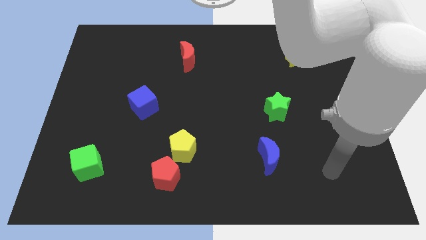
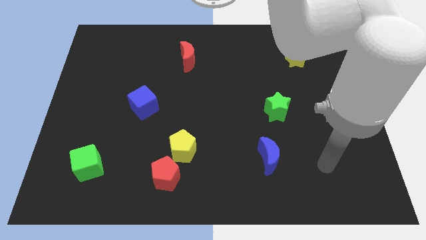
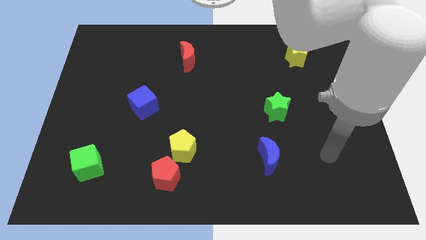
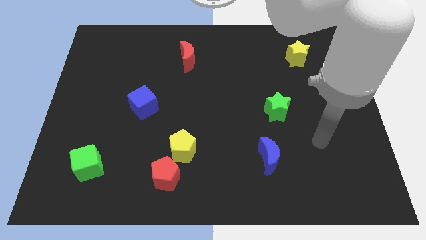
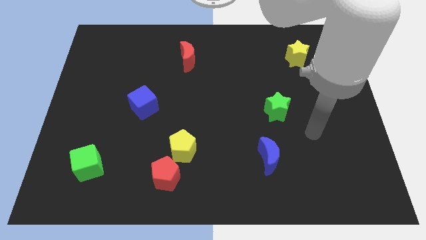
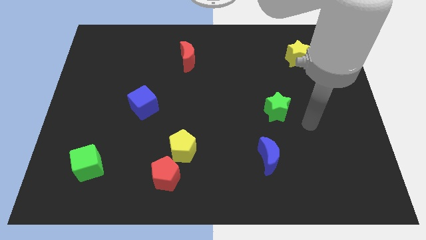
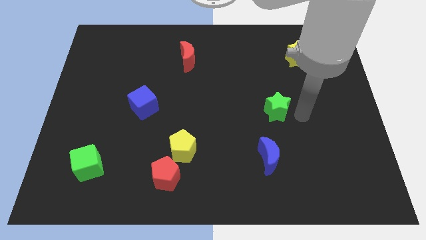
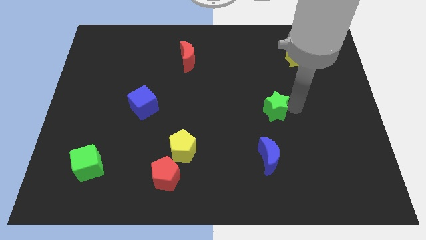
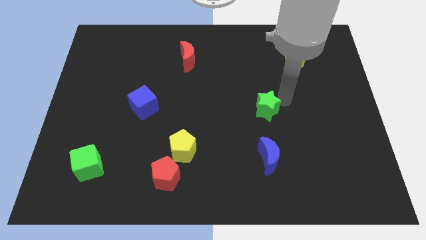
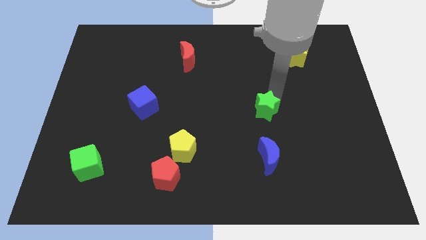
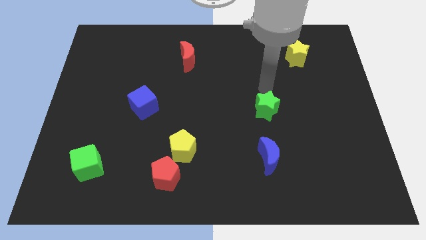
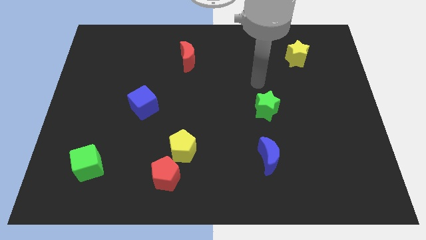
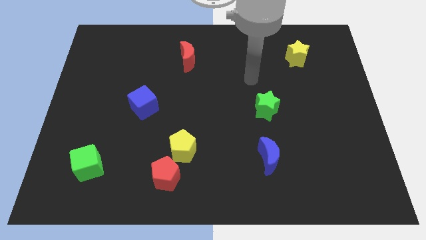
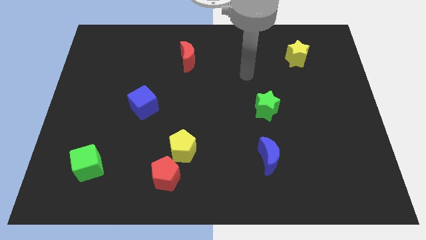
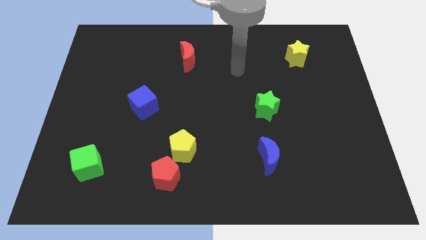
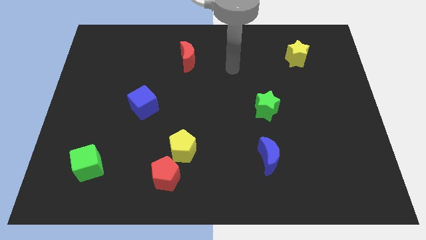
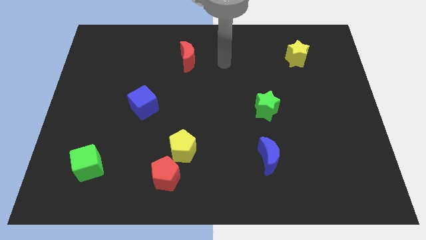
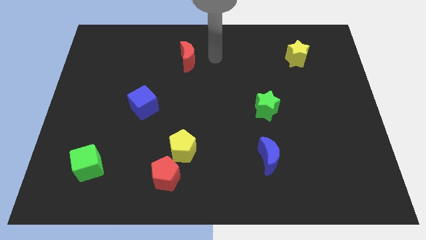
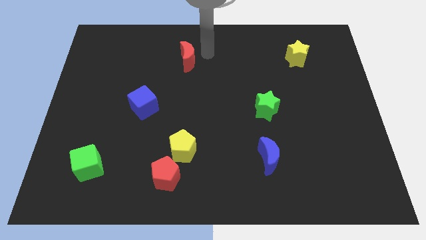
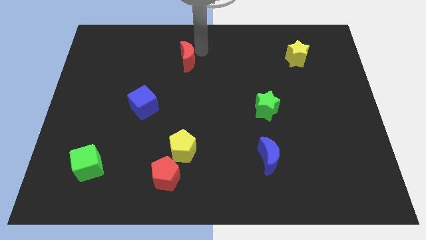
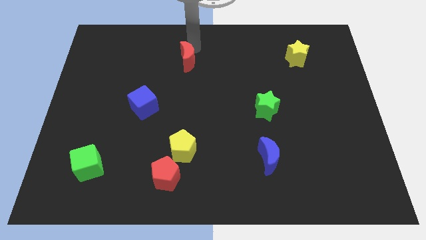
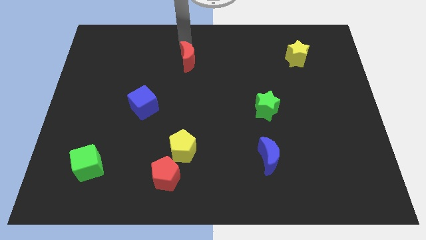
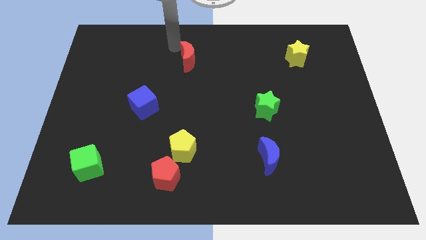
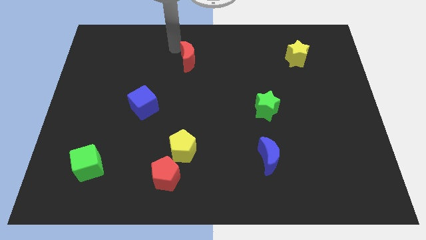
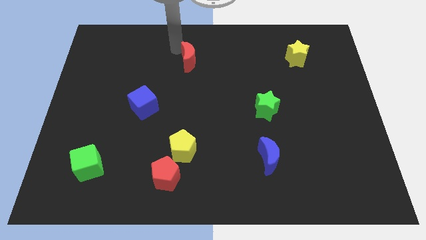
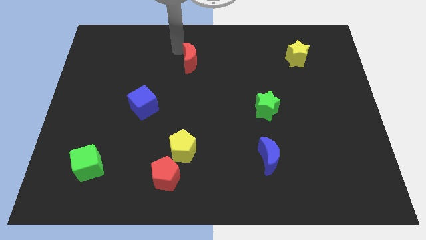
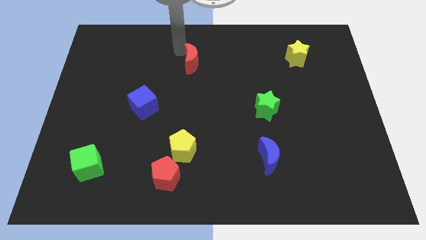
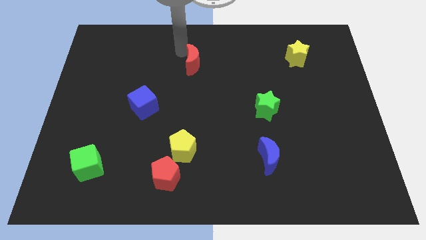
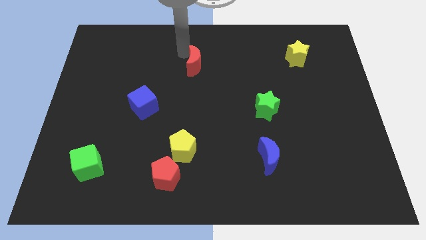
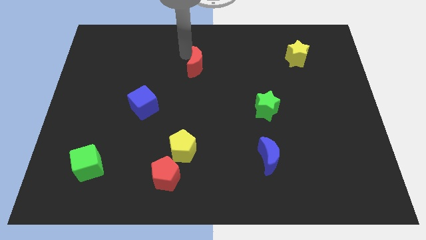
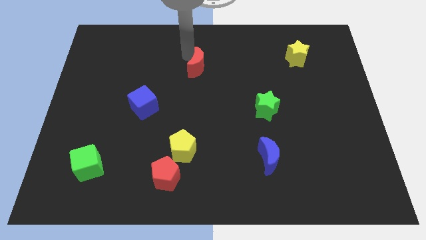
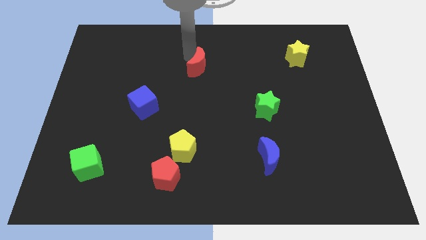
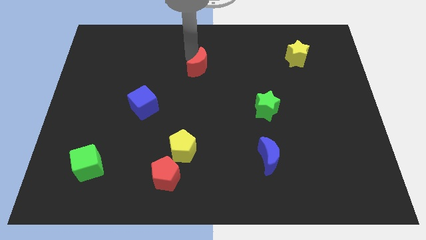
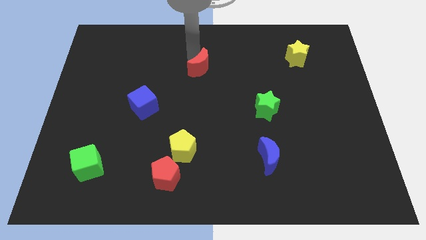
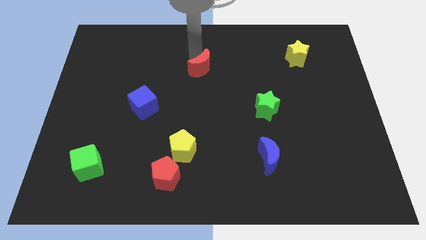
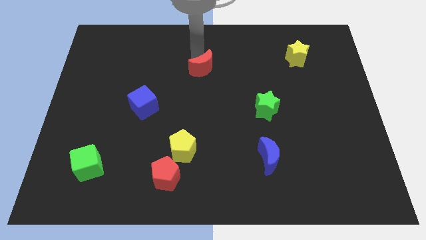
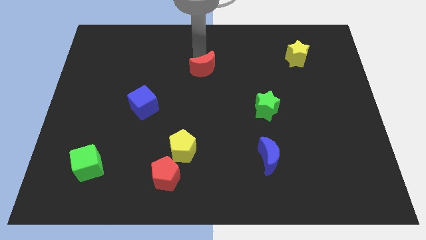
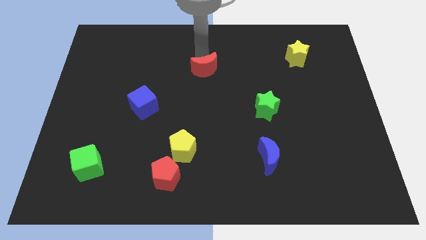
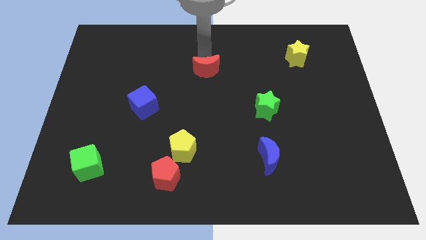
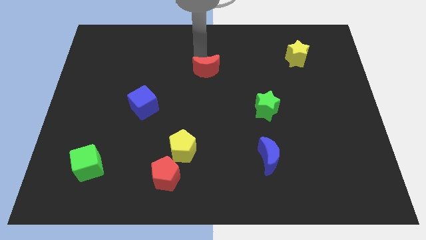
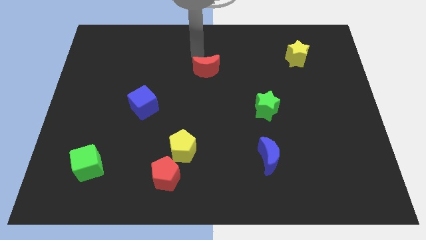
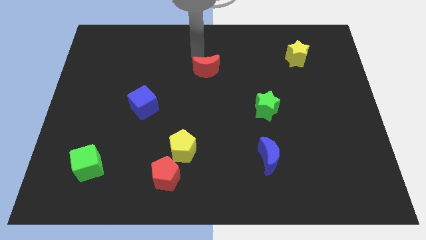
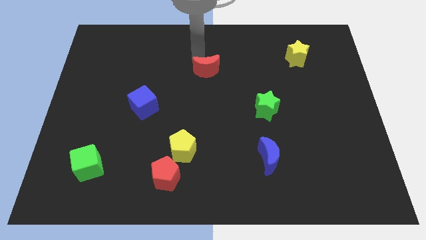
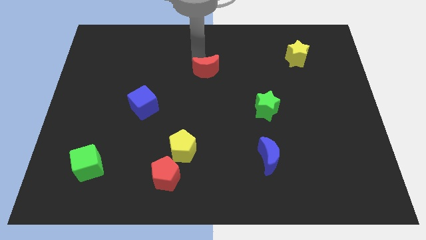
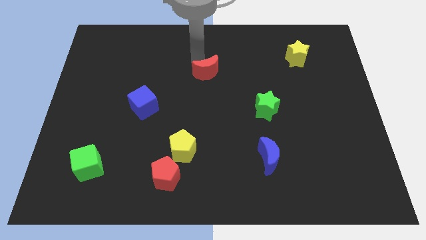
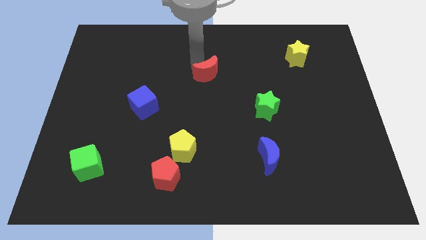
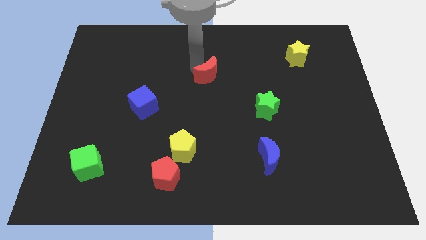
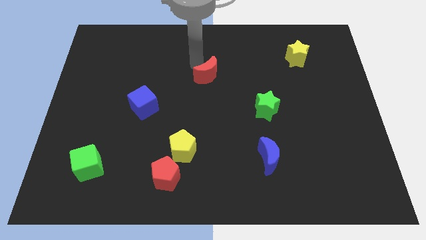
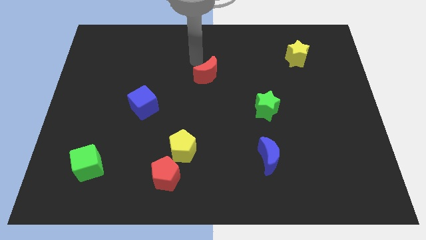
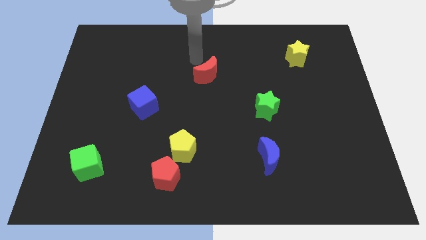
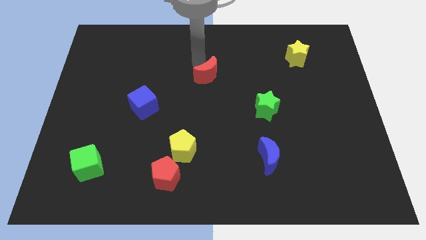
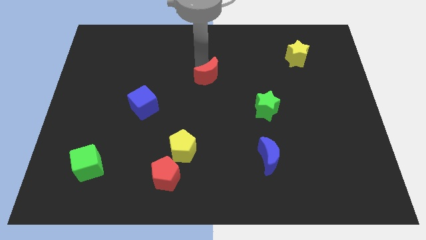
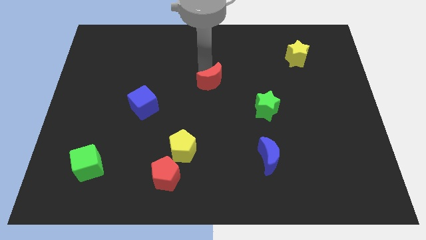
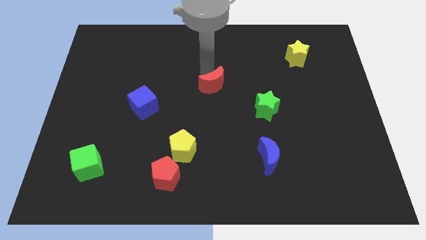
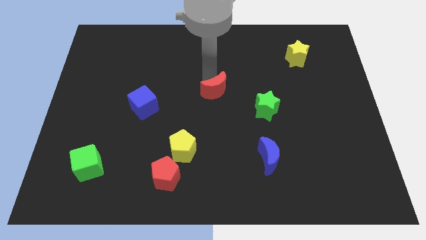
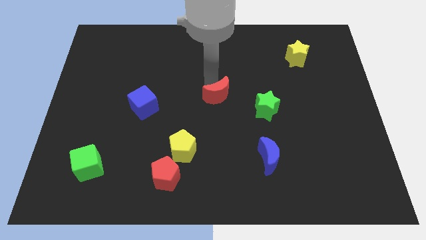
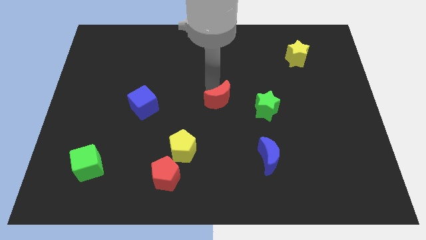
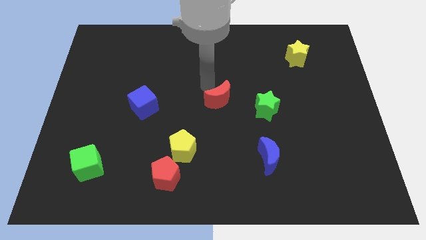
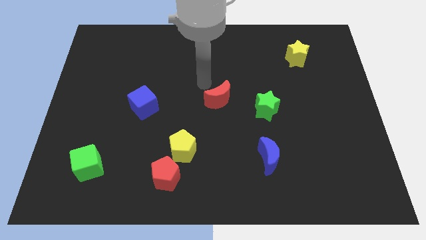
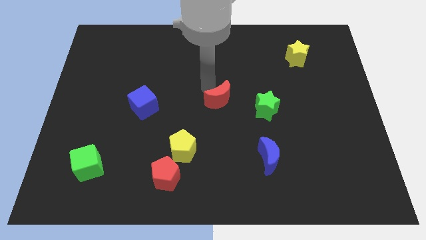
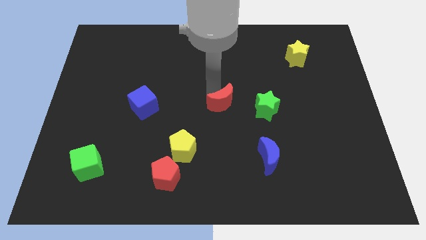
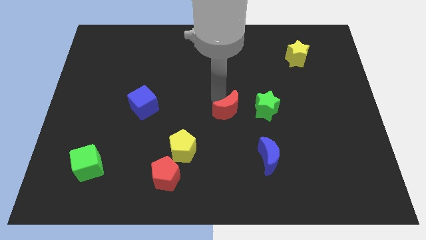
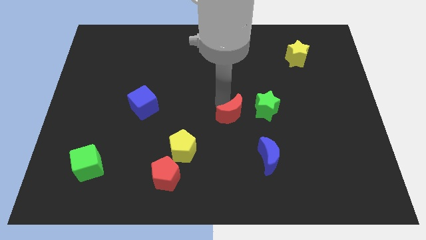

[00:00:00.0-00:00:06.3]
slide the red moon to the bottom left side of the green star
